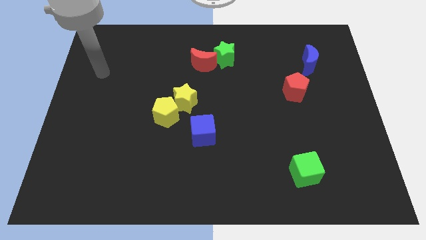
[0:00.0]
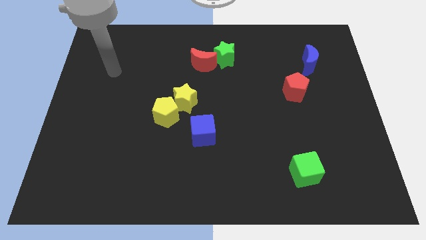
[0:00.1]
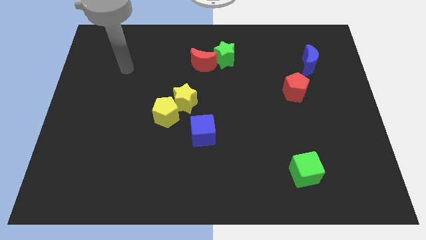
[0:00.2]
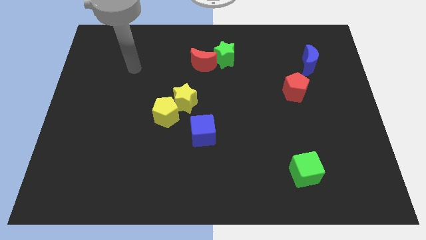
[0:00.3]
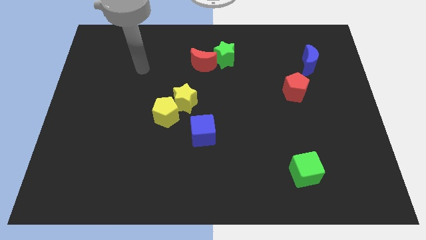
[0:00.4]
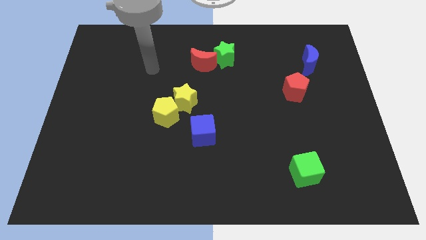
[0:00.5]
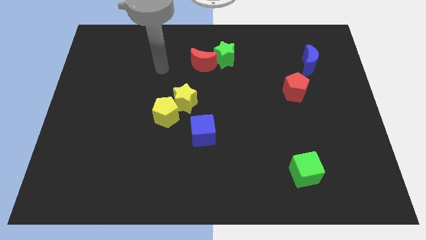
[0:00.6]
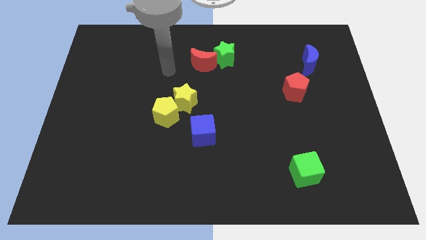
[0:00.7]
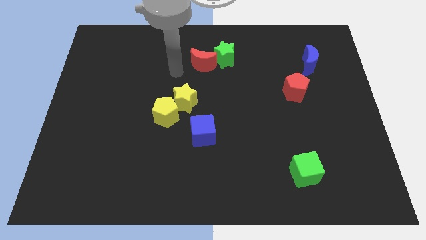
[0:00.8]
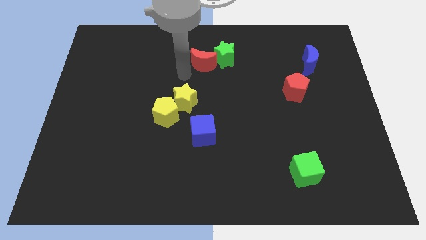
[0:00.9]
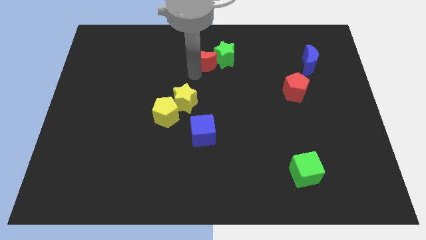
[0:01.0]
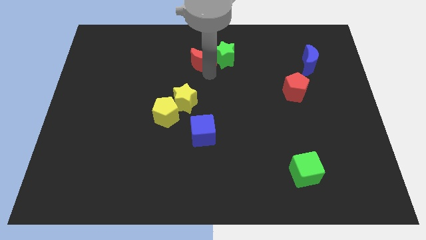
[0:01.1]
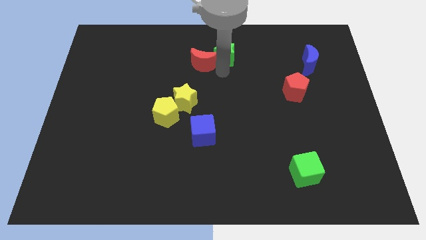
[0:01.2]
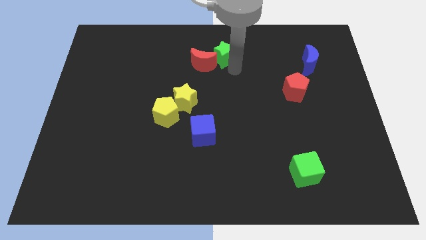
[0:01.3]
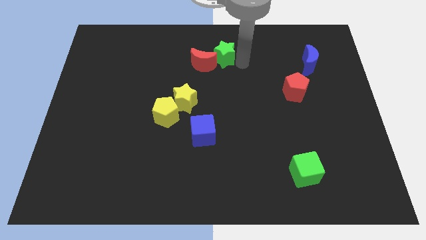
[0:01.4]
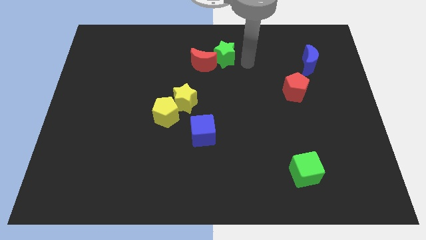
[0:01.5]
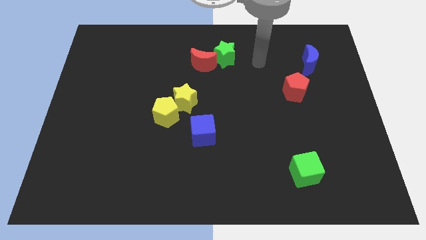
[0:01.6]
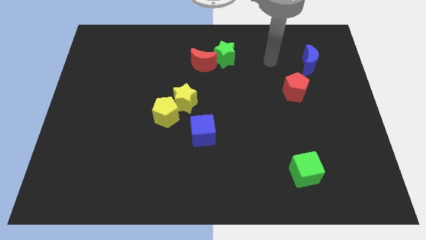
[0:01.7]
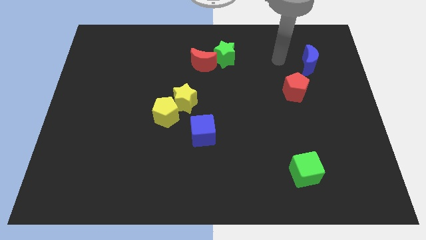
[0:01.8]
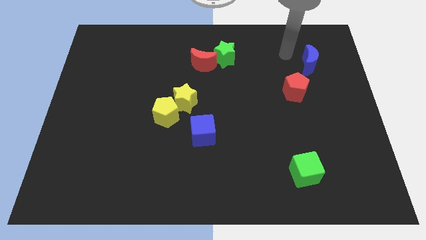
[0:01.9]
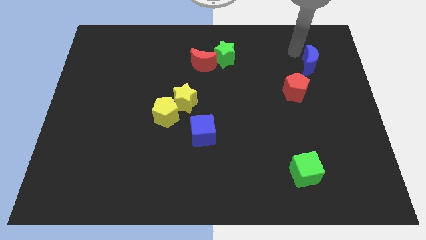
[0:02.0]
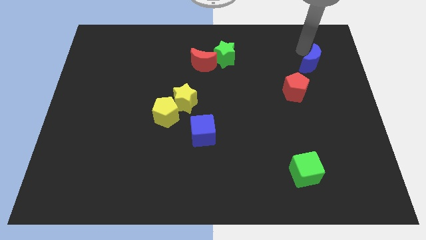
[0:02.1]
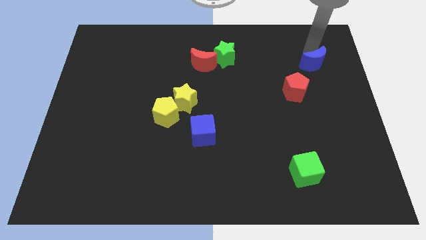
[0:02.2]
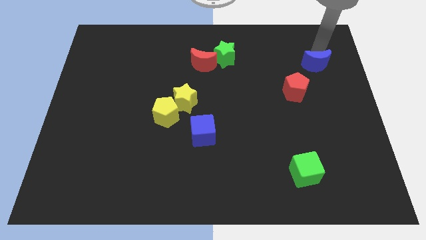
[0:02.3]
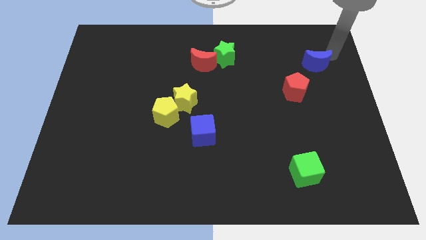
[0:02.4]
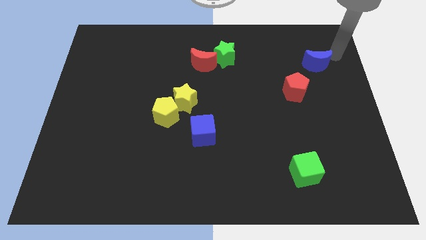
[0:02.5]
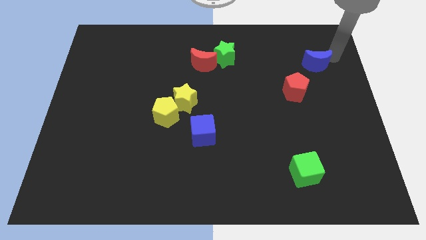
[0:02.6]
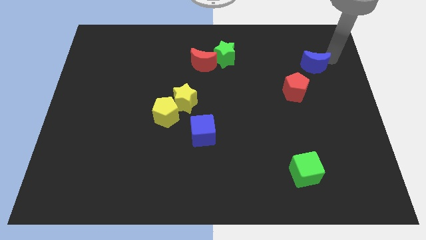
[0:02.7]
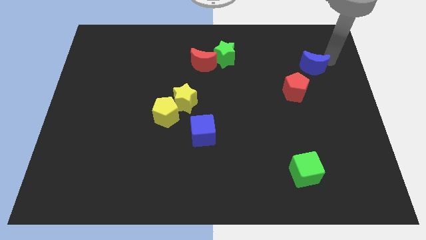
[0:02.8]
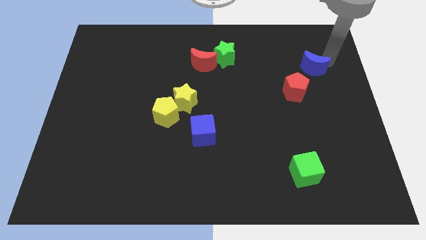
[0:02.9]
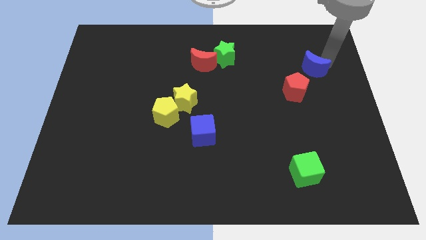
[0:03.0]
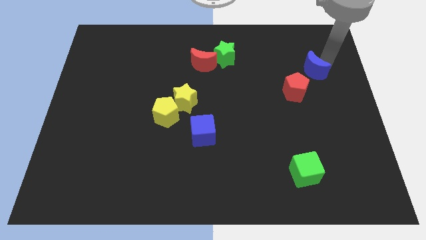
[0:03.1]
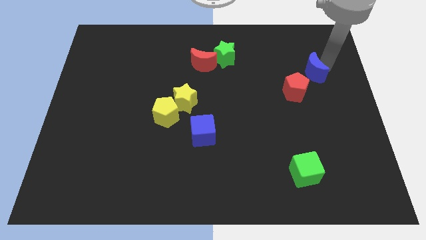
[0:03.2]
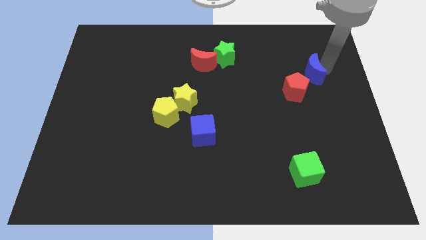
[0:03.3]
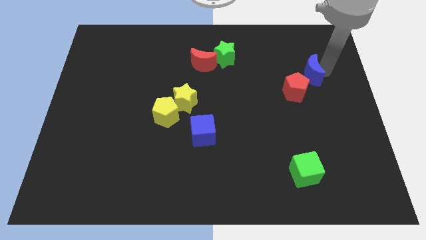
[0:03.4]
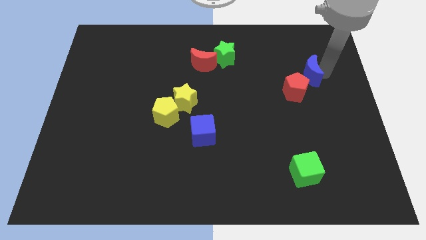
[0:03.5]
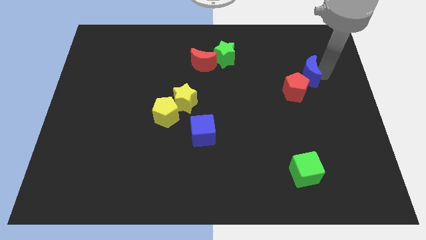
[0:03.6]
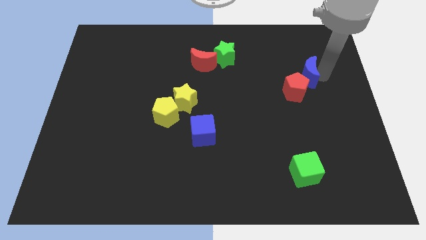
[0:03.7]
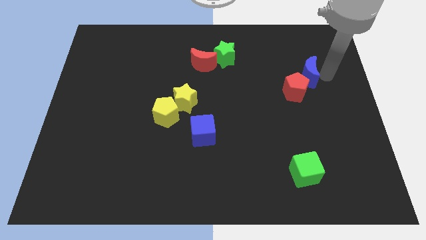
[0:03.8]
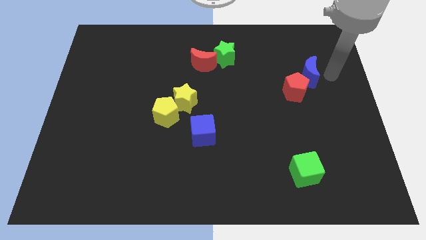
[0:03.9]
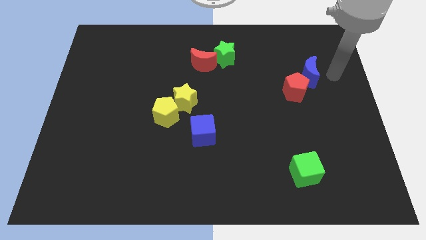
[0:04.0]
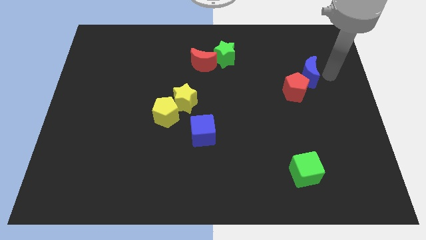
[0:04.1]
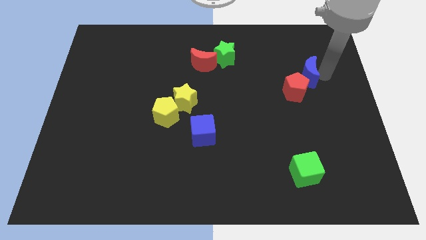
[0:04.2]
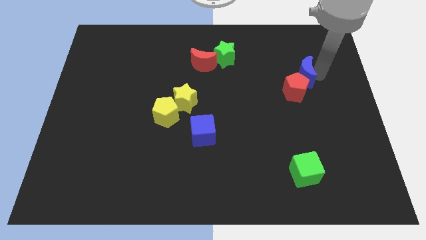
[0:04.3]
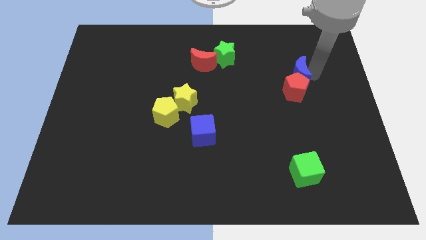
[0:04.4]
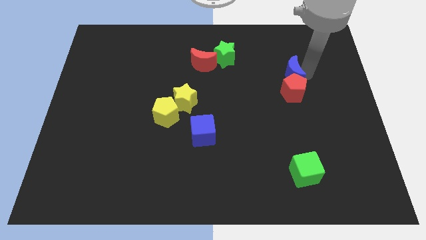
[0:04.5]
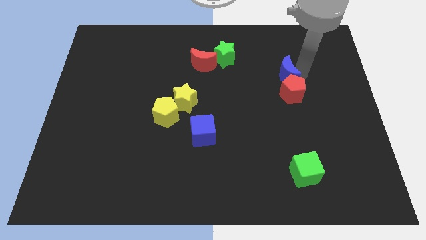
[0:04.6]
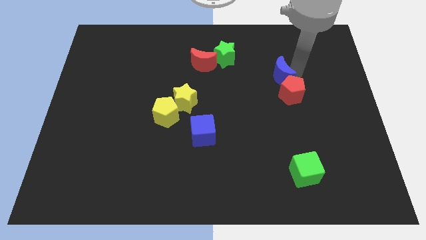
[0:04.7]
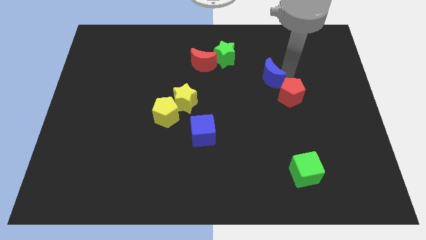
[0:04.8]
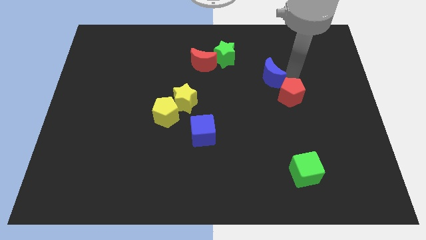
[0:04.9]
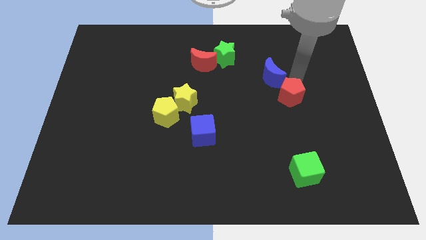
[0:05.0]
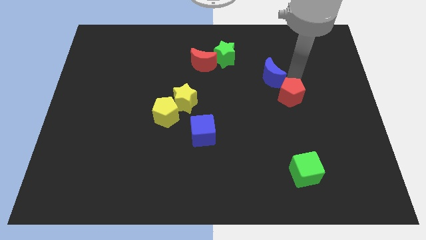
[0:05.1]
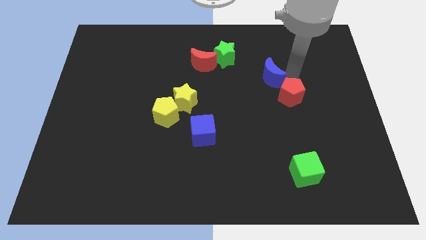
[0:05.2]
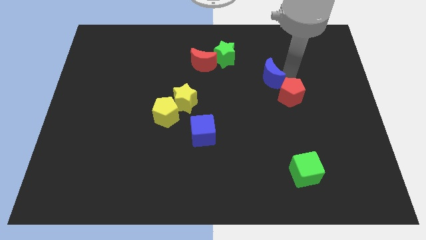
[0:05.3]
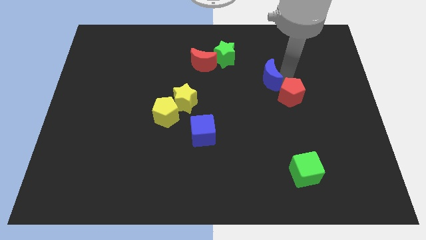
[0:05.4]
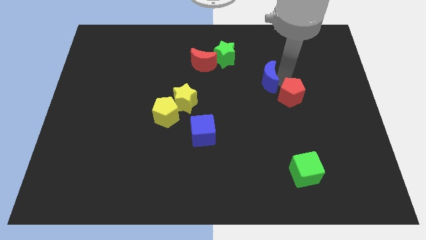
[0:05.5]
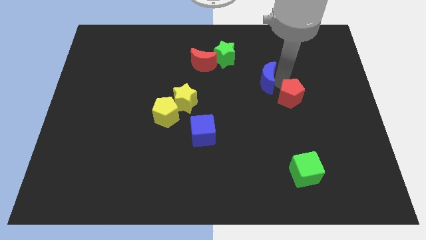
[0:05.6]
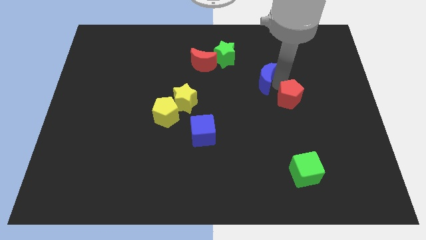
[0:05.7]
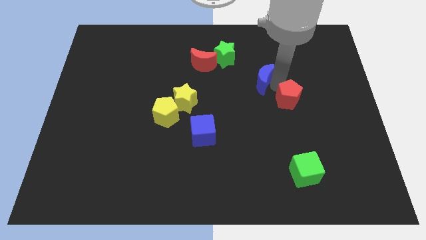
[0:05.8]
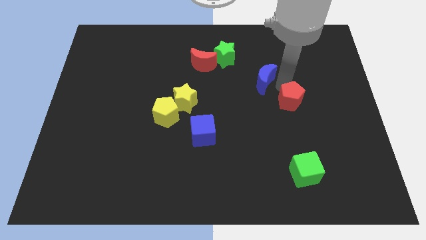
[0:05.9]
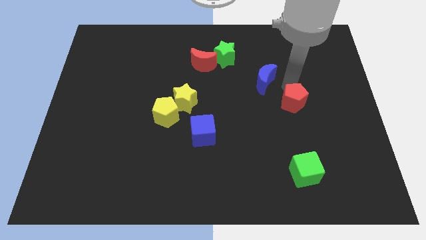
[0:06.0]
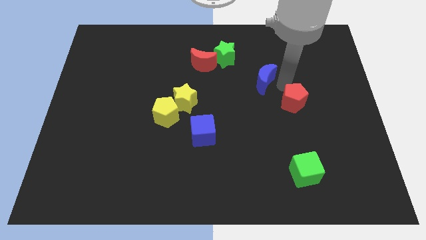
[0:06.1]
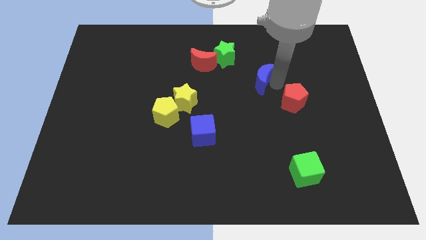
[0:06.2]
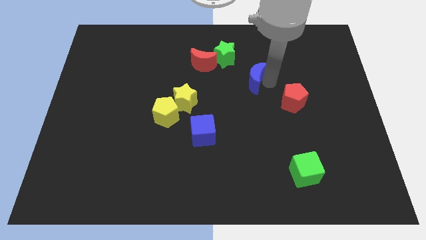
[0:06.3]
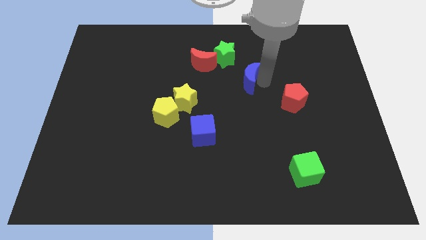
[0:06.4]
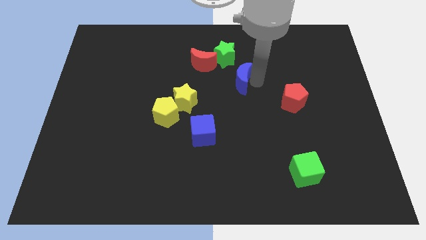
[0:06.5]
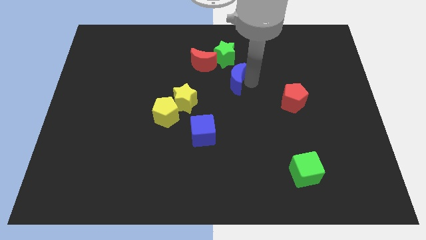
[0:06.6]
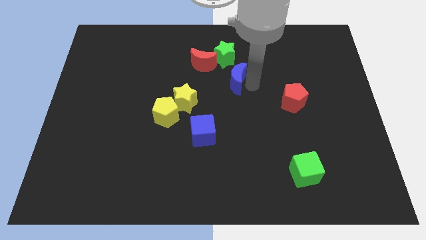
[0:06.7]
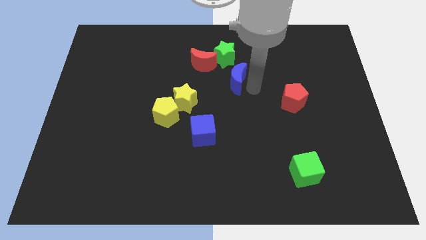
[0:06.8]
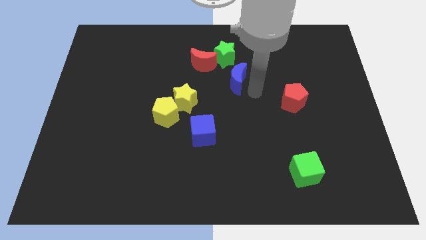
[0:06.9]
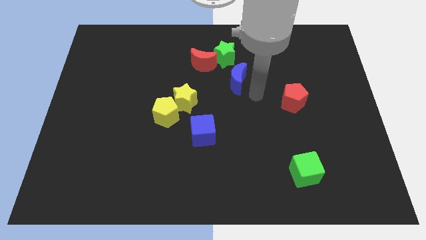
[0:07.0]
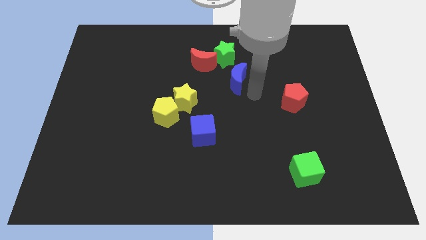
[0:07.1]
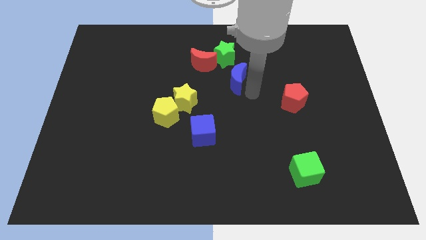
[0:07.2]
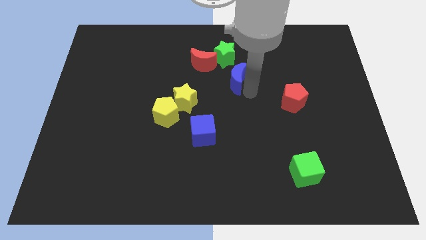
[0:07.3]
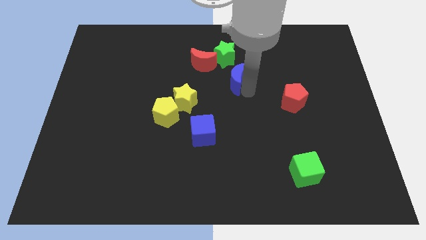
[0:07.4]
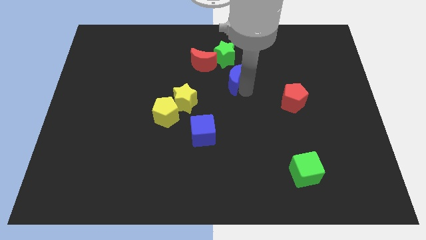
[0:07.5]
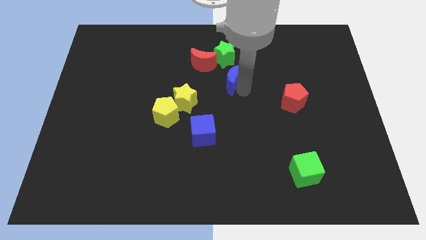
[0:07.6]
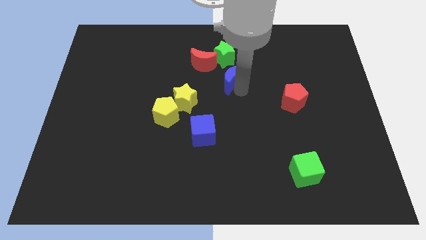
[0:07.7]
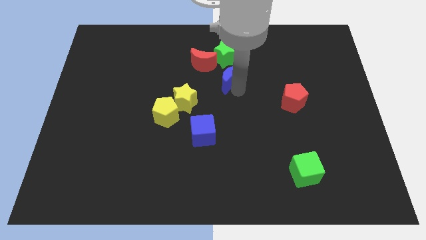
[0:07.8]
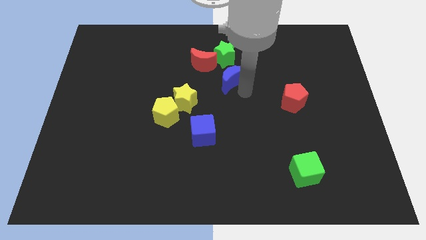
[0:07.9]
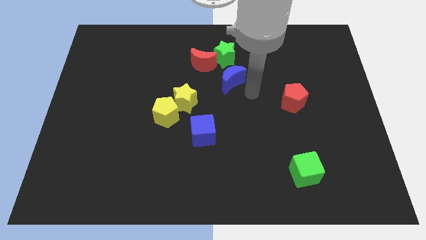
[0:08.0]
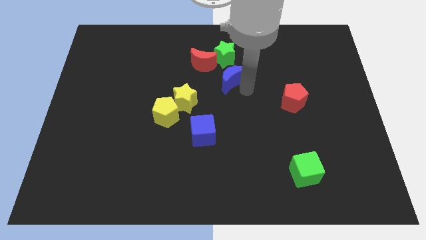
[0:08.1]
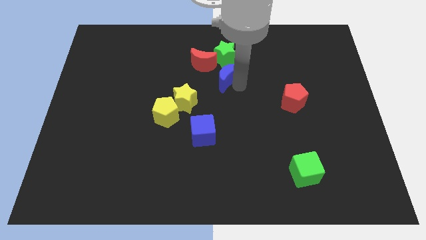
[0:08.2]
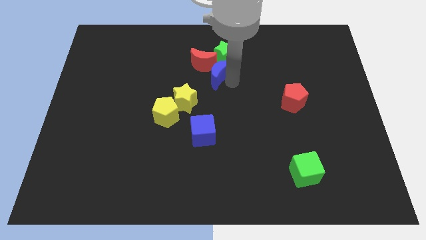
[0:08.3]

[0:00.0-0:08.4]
move the blue moon towards the red moon
